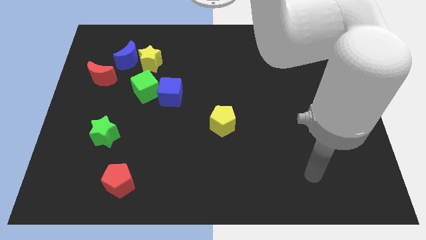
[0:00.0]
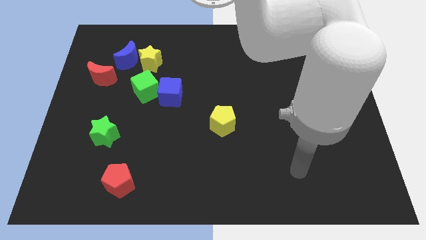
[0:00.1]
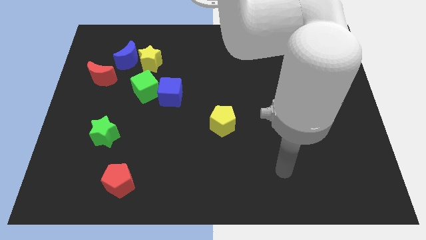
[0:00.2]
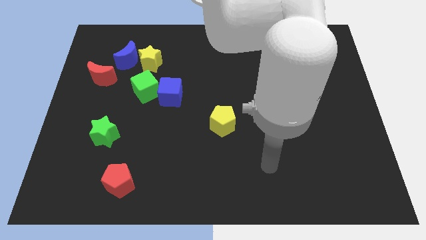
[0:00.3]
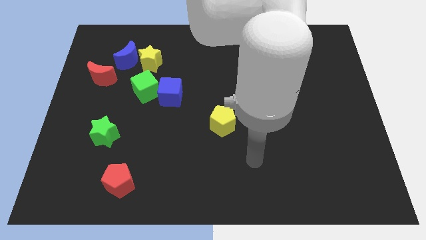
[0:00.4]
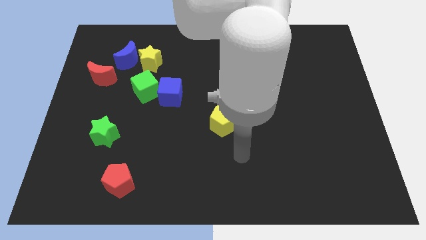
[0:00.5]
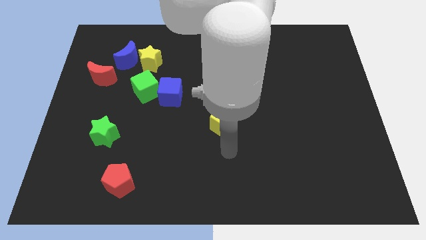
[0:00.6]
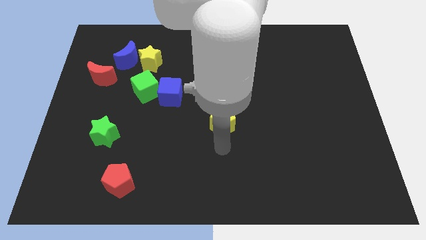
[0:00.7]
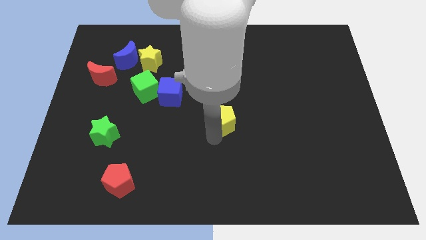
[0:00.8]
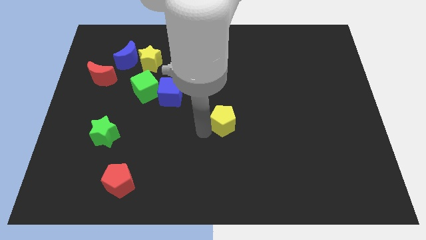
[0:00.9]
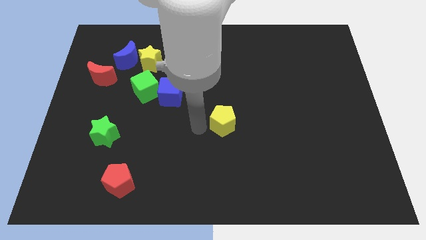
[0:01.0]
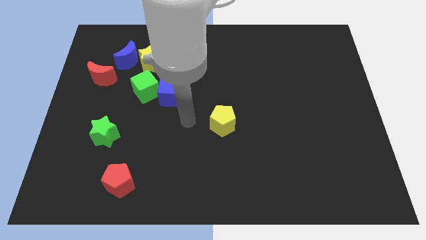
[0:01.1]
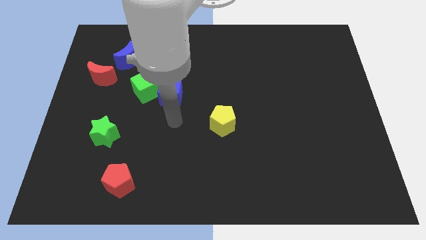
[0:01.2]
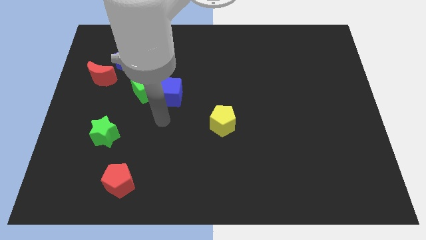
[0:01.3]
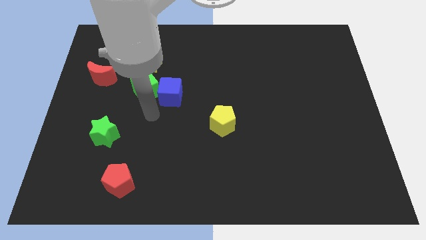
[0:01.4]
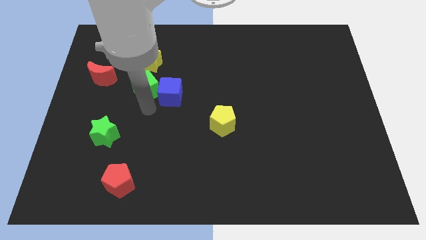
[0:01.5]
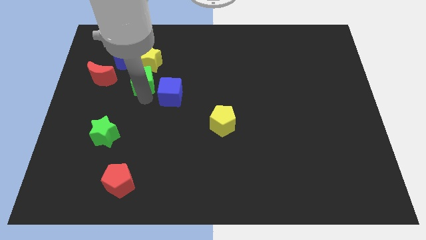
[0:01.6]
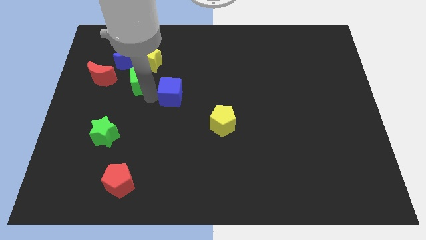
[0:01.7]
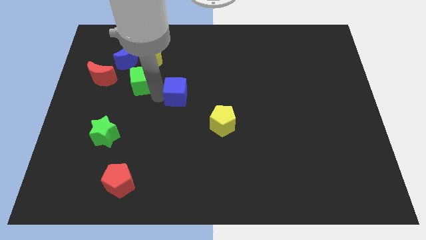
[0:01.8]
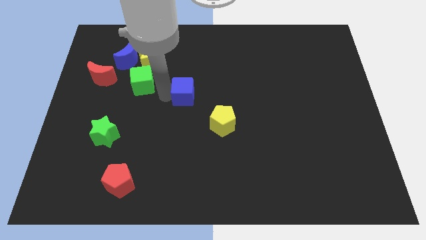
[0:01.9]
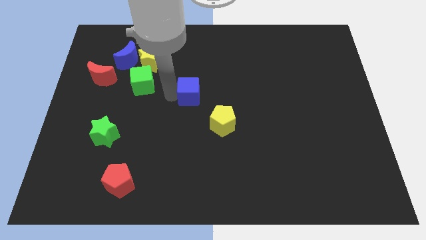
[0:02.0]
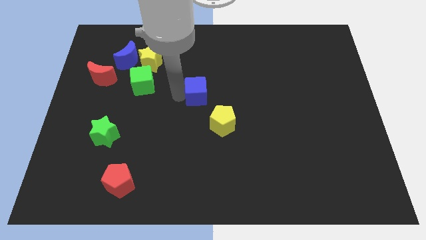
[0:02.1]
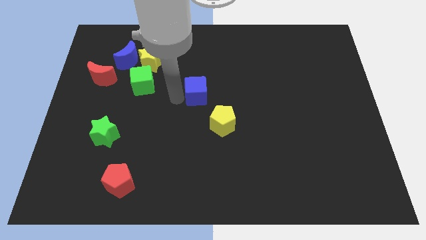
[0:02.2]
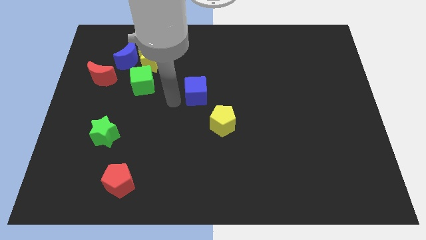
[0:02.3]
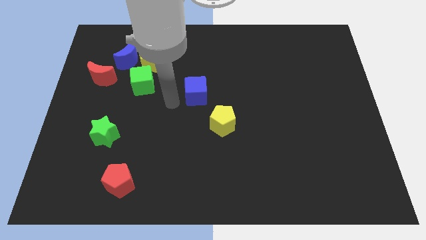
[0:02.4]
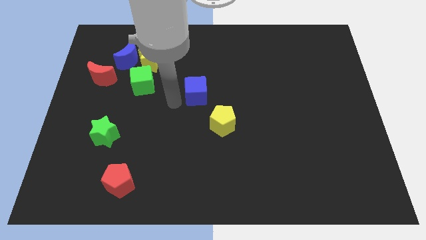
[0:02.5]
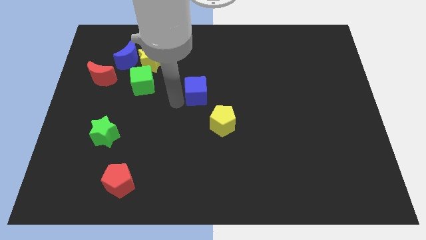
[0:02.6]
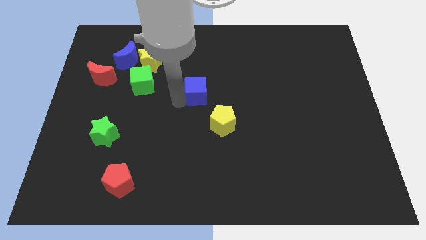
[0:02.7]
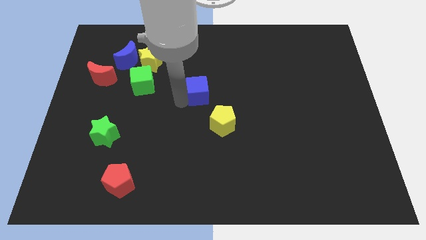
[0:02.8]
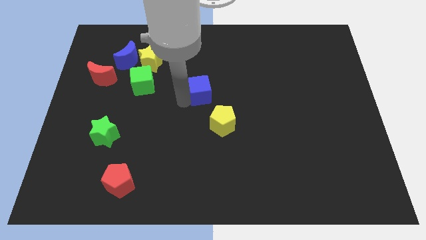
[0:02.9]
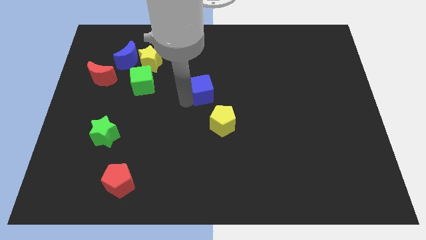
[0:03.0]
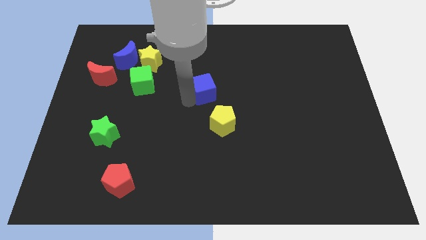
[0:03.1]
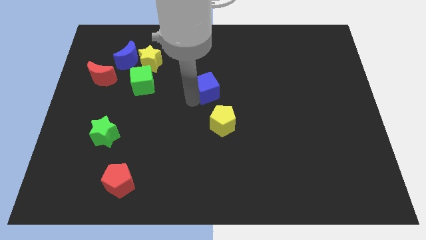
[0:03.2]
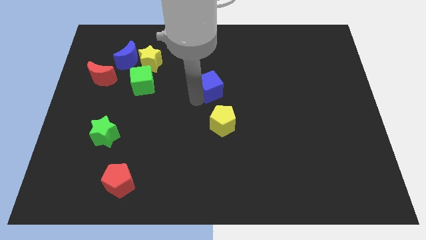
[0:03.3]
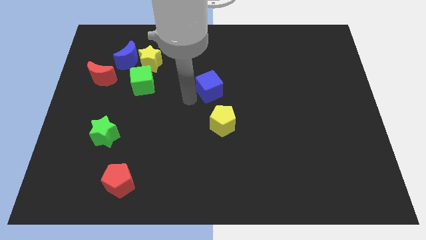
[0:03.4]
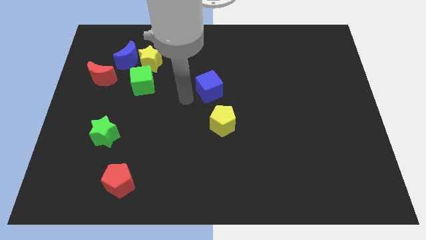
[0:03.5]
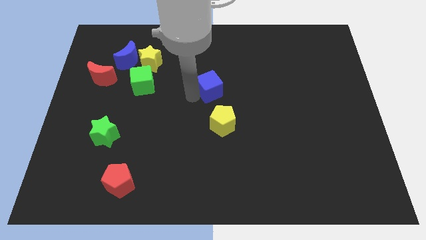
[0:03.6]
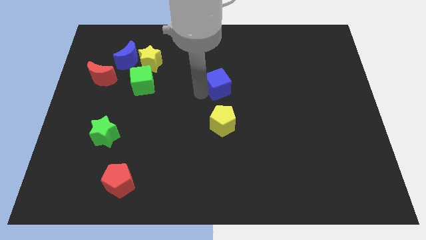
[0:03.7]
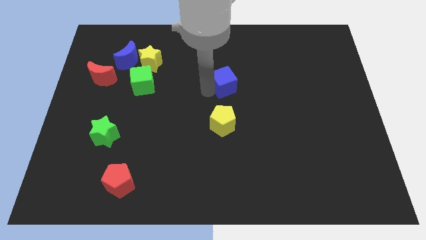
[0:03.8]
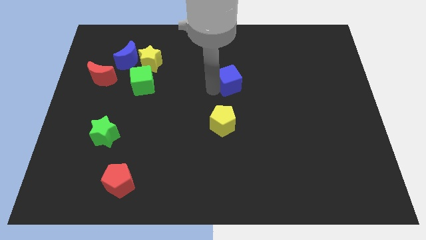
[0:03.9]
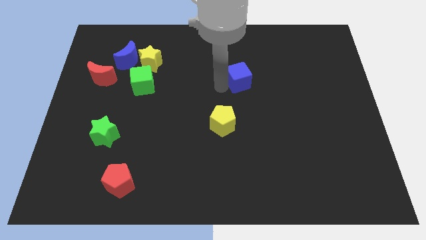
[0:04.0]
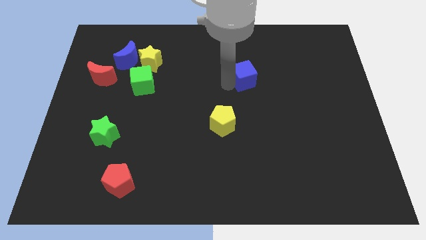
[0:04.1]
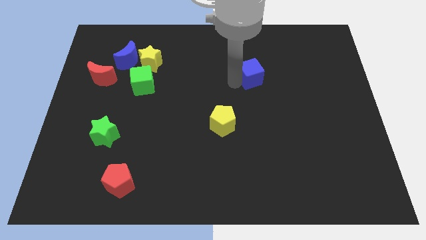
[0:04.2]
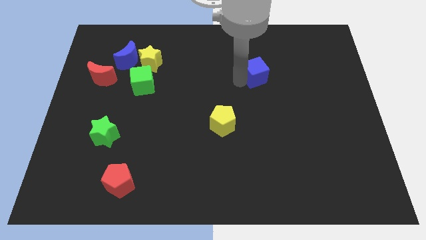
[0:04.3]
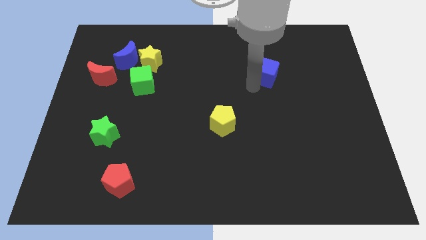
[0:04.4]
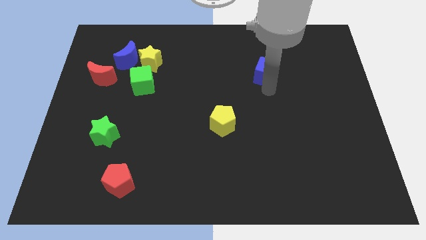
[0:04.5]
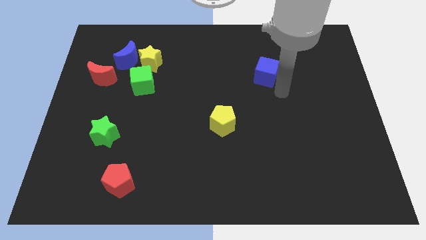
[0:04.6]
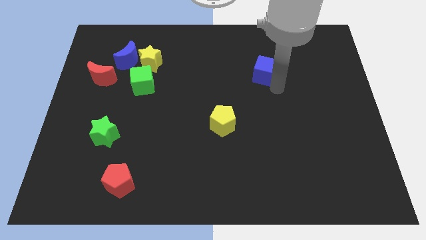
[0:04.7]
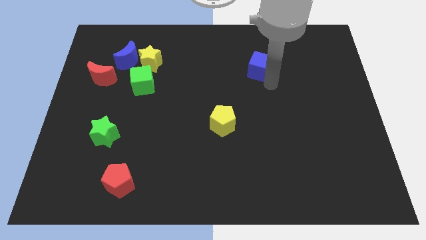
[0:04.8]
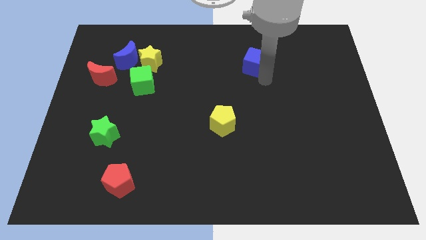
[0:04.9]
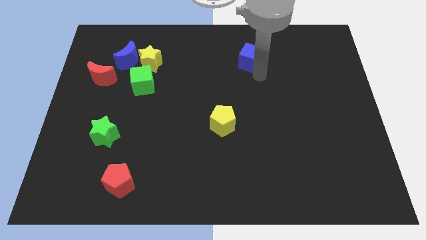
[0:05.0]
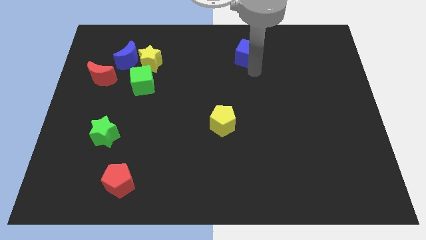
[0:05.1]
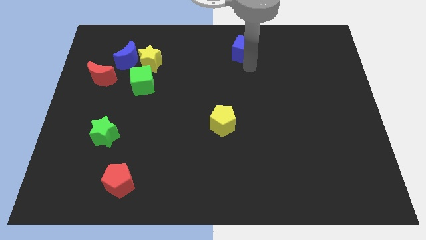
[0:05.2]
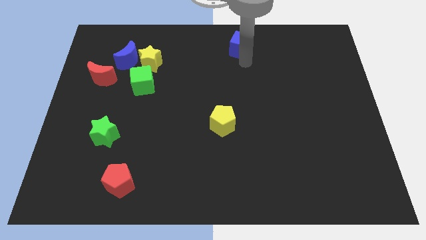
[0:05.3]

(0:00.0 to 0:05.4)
slide the blue cube to the top side

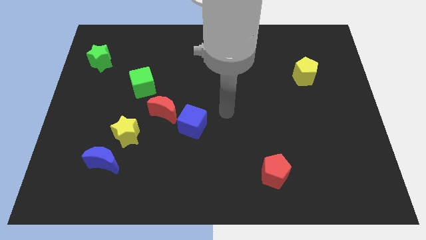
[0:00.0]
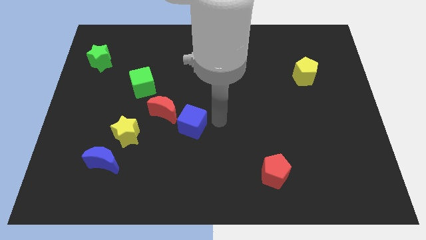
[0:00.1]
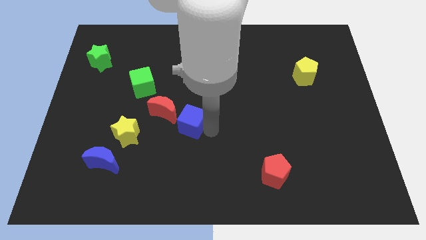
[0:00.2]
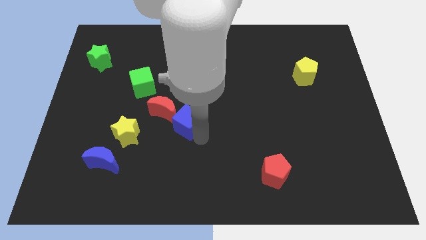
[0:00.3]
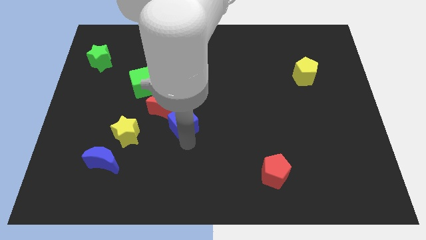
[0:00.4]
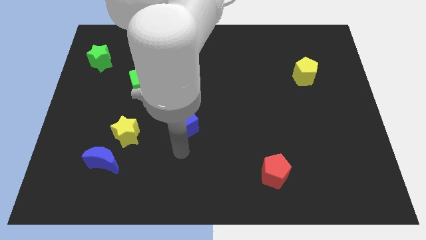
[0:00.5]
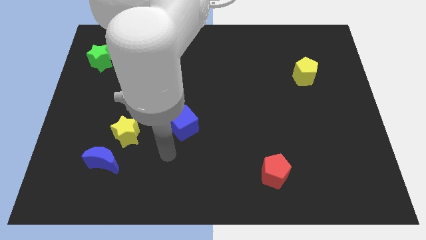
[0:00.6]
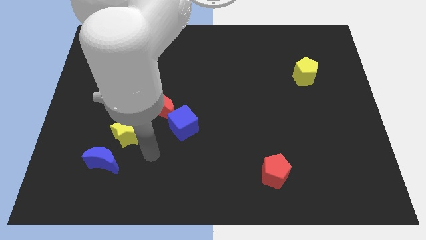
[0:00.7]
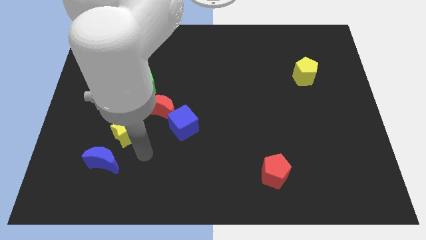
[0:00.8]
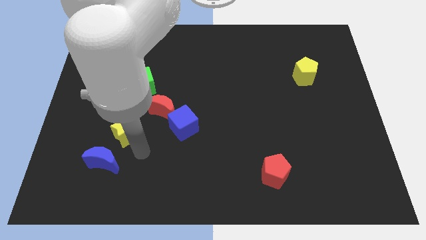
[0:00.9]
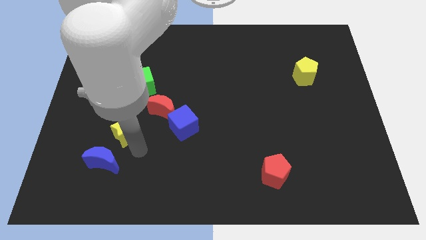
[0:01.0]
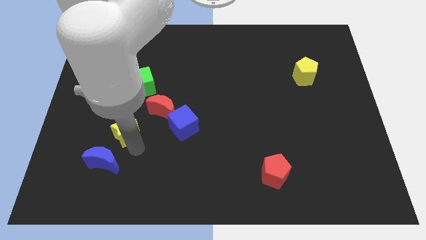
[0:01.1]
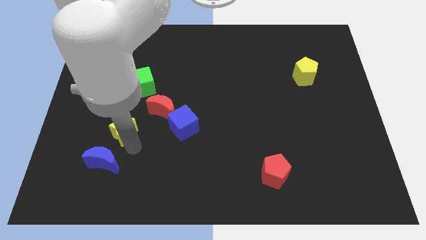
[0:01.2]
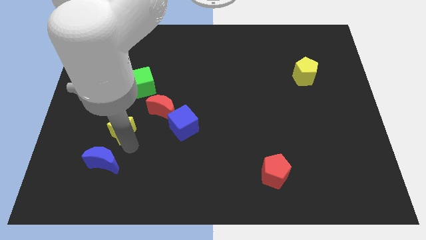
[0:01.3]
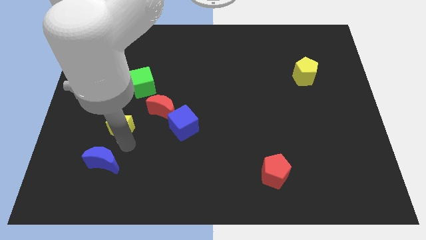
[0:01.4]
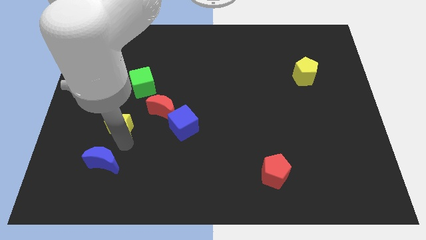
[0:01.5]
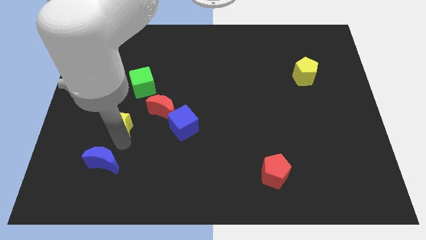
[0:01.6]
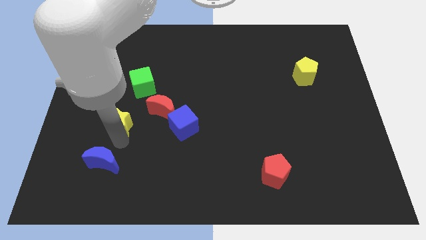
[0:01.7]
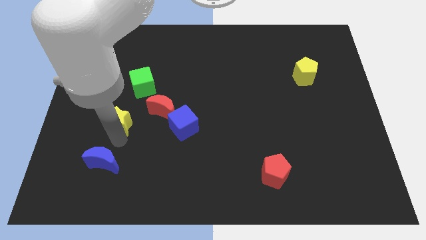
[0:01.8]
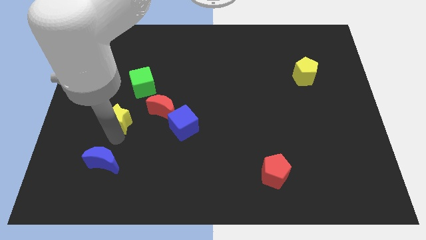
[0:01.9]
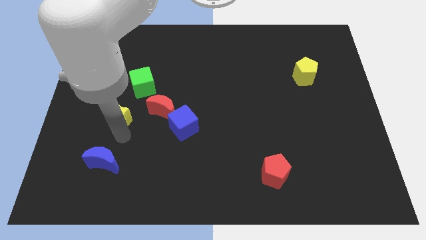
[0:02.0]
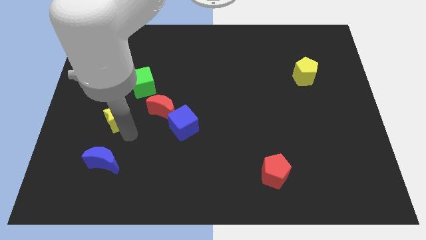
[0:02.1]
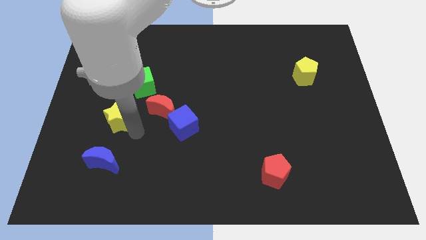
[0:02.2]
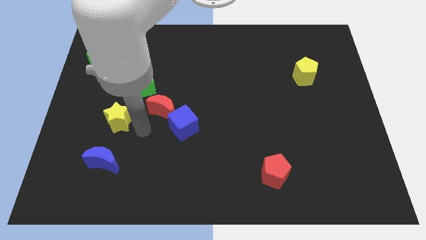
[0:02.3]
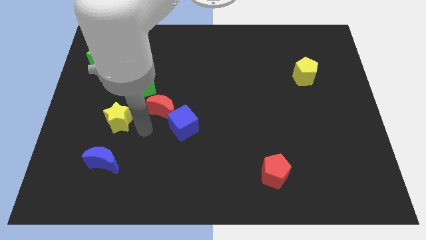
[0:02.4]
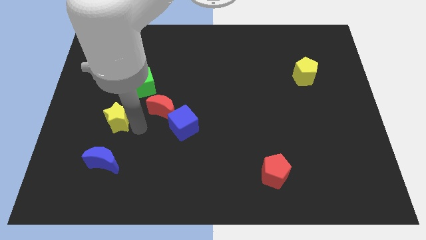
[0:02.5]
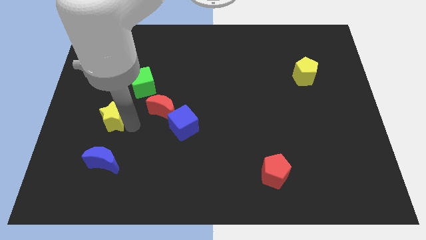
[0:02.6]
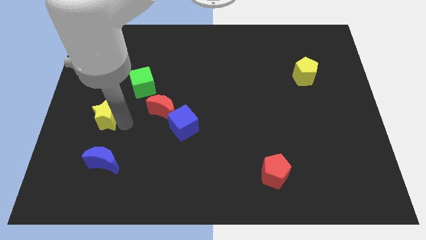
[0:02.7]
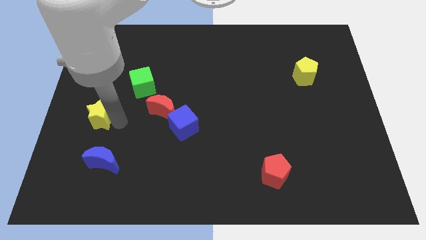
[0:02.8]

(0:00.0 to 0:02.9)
move the yellow star to the center left
